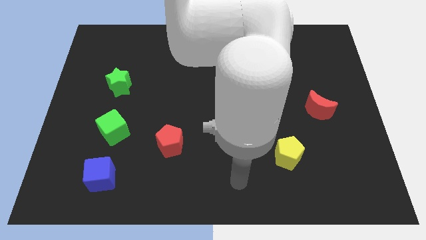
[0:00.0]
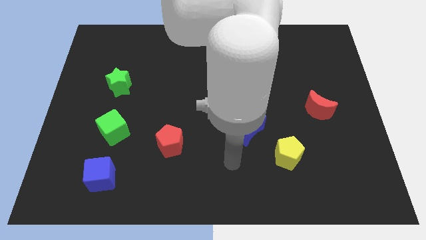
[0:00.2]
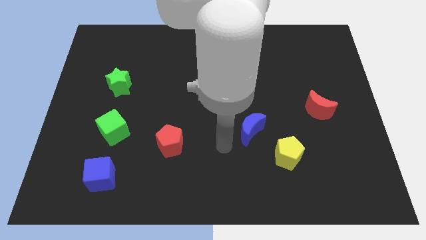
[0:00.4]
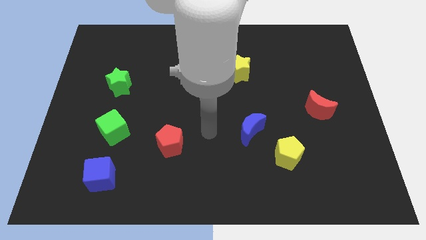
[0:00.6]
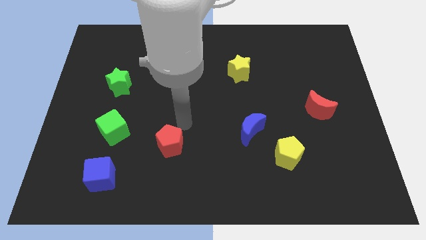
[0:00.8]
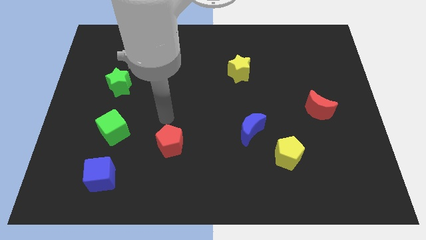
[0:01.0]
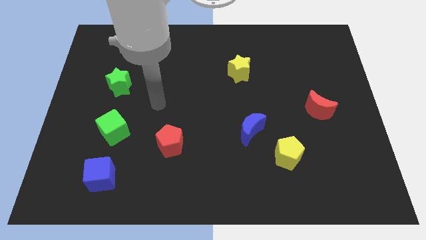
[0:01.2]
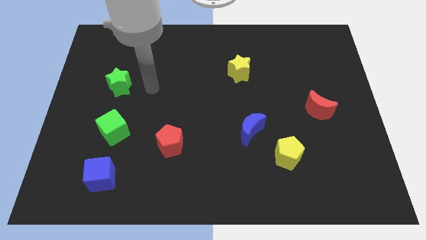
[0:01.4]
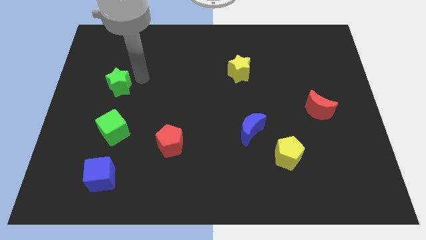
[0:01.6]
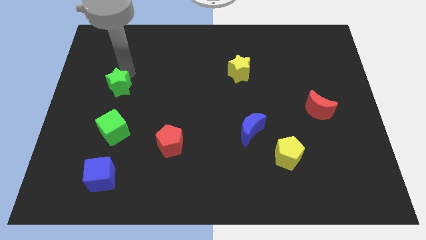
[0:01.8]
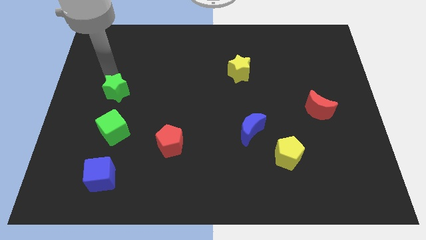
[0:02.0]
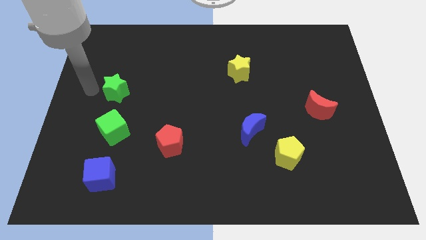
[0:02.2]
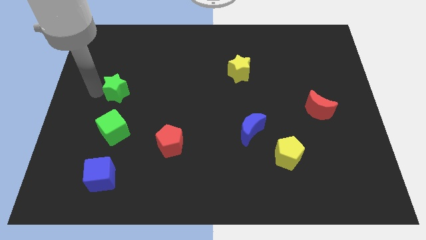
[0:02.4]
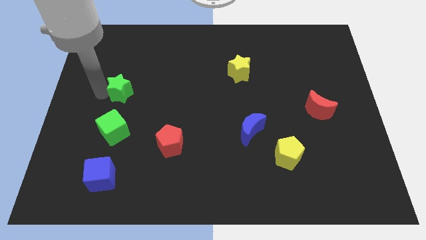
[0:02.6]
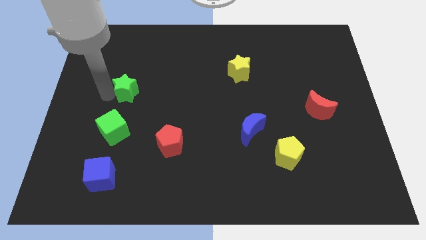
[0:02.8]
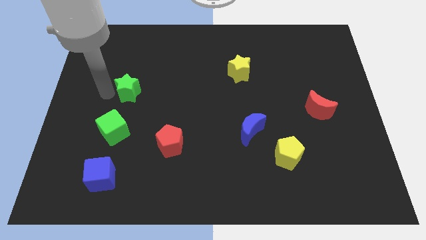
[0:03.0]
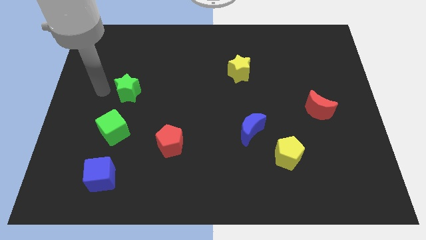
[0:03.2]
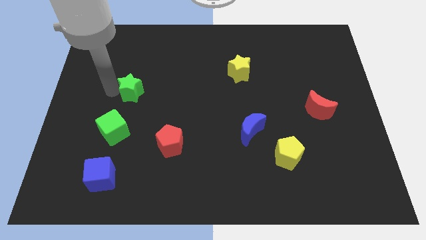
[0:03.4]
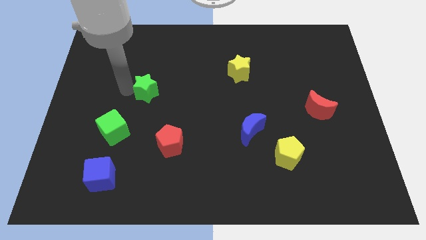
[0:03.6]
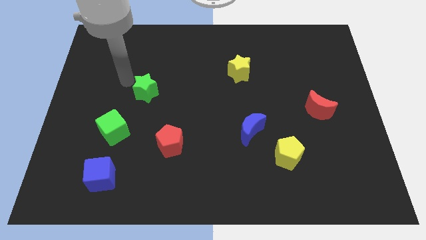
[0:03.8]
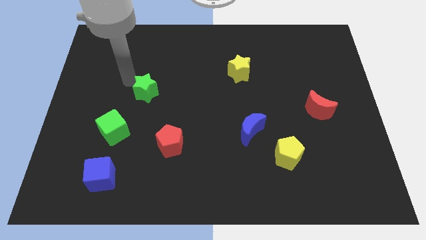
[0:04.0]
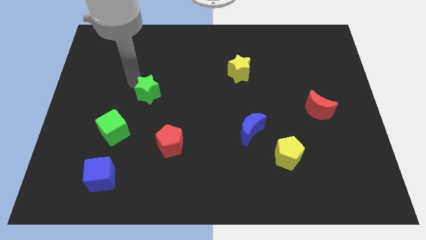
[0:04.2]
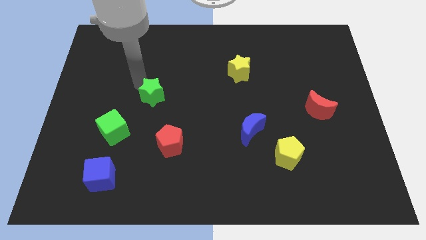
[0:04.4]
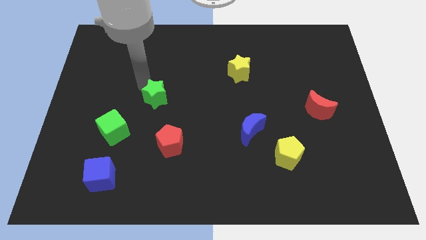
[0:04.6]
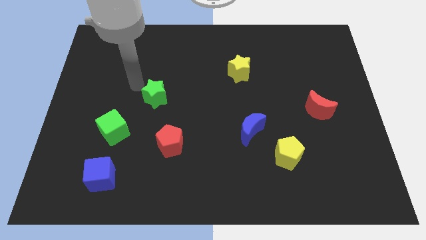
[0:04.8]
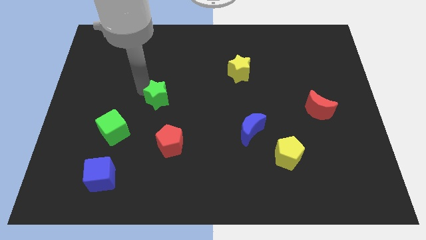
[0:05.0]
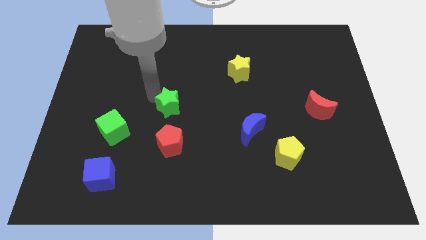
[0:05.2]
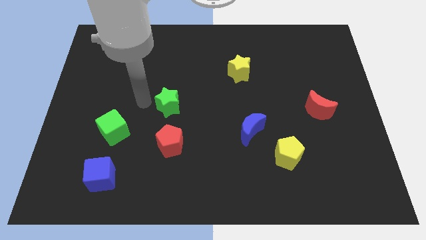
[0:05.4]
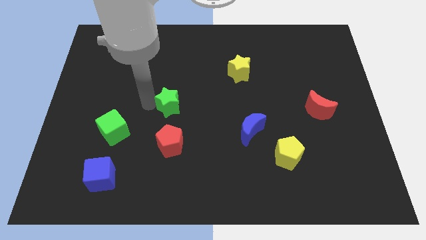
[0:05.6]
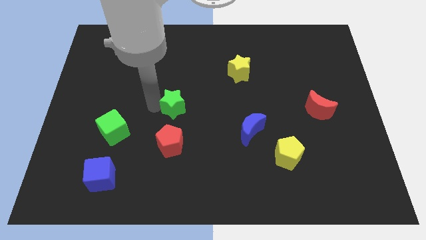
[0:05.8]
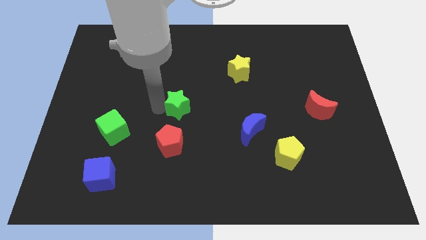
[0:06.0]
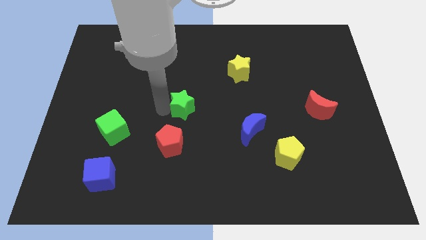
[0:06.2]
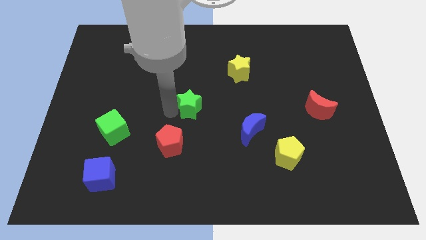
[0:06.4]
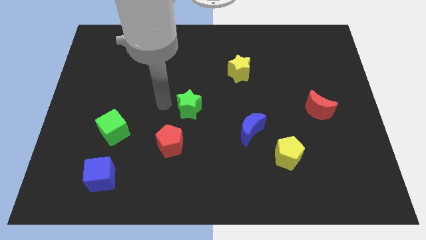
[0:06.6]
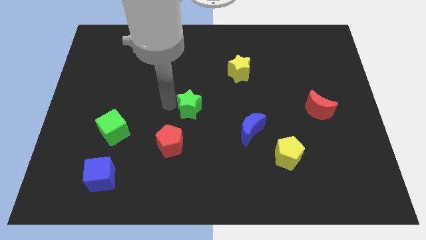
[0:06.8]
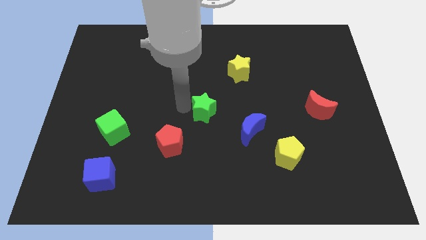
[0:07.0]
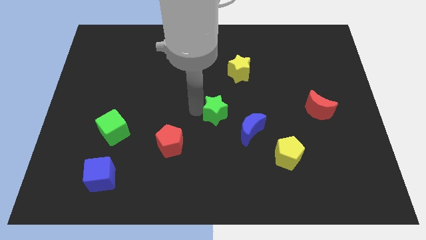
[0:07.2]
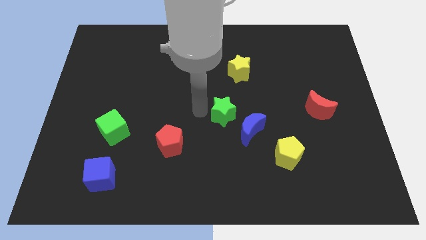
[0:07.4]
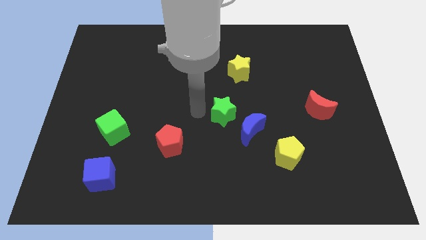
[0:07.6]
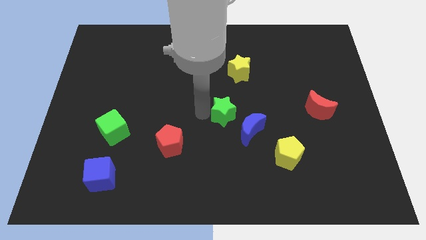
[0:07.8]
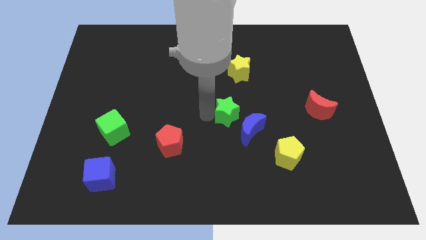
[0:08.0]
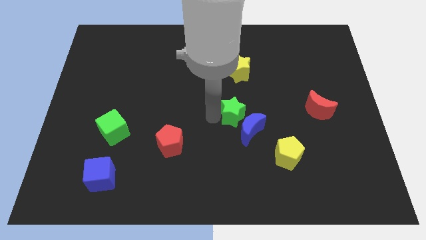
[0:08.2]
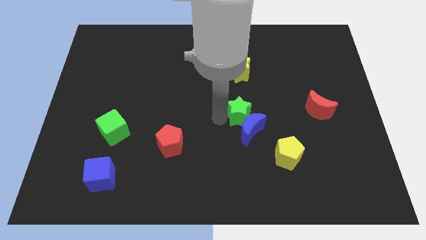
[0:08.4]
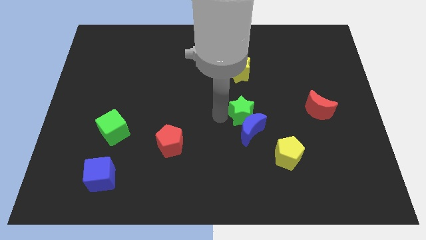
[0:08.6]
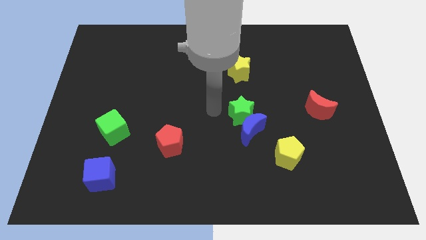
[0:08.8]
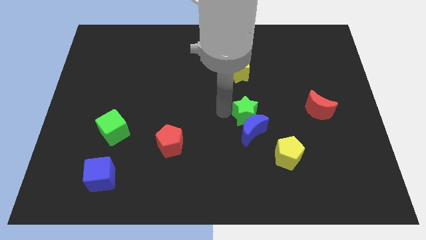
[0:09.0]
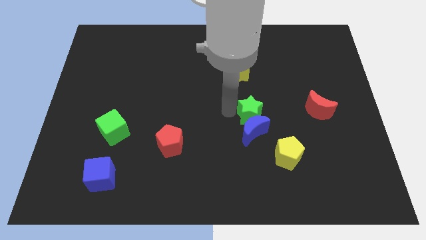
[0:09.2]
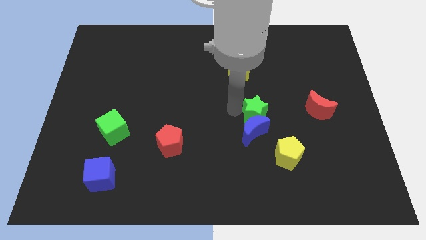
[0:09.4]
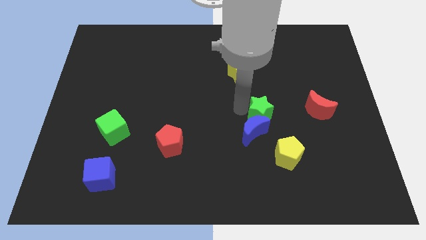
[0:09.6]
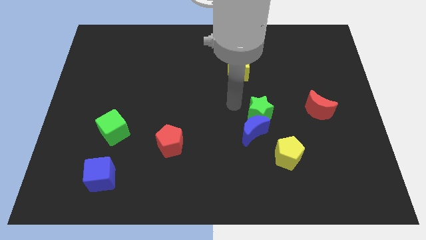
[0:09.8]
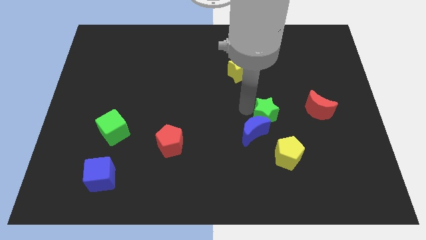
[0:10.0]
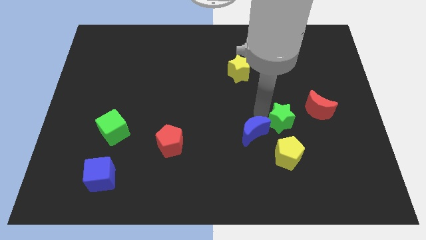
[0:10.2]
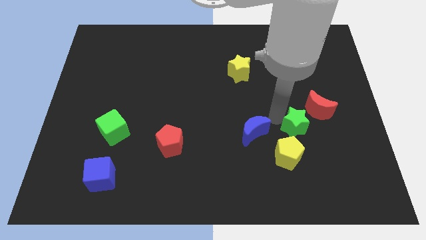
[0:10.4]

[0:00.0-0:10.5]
slide the green star to the top right side of the yellow pentagon

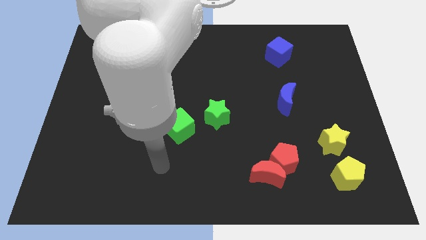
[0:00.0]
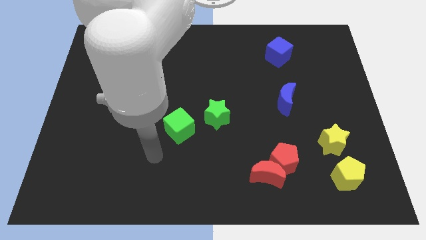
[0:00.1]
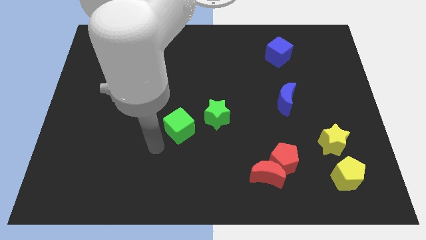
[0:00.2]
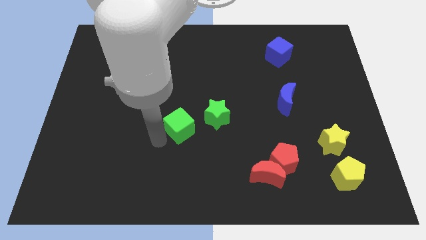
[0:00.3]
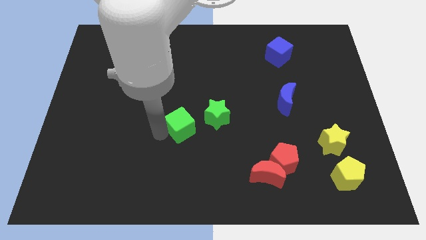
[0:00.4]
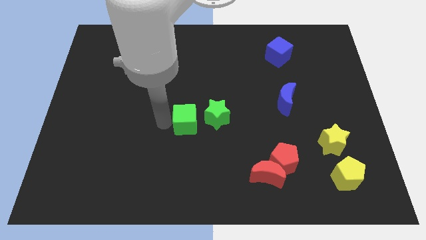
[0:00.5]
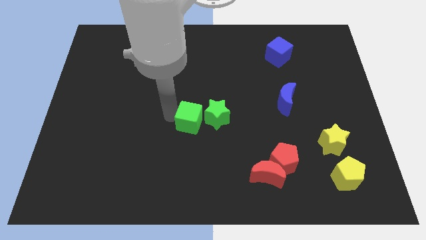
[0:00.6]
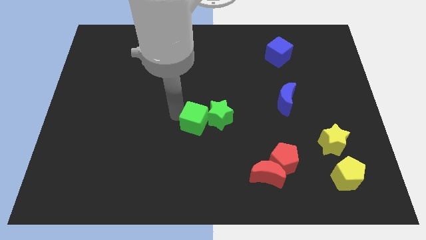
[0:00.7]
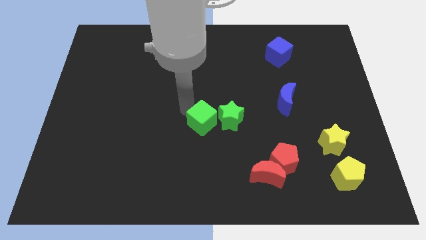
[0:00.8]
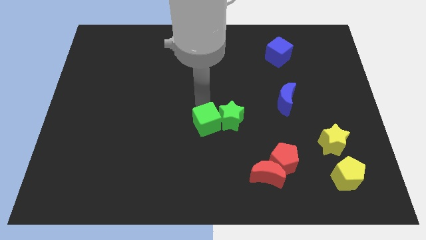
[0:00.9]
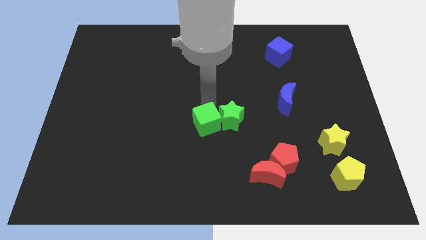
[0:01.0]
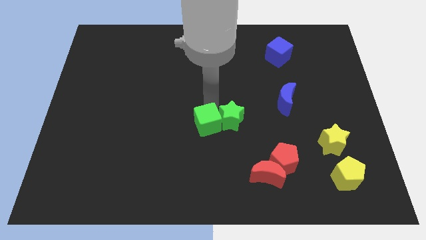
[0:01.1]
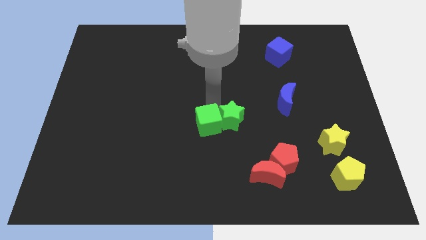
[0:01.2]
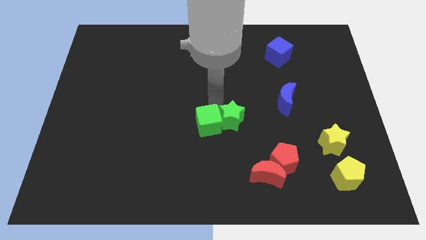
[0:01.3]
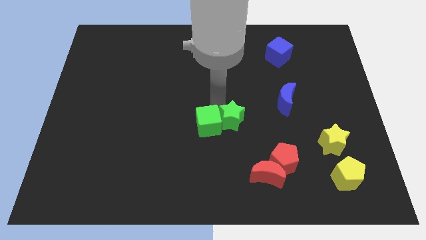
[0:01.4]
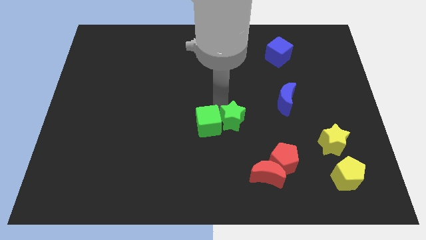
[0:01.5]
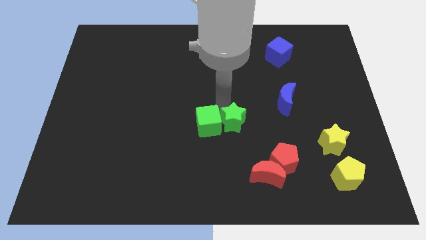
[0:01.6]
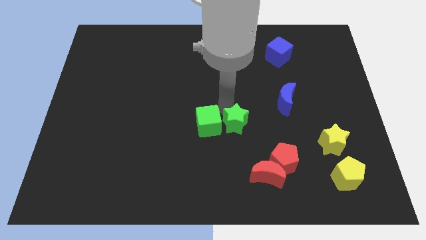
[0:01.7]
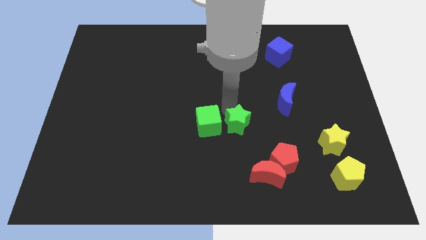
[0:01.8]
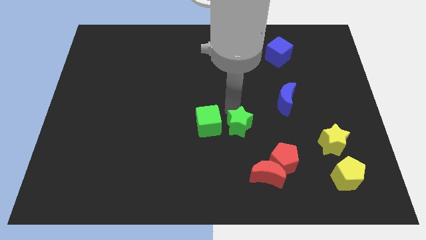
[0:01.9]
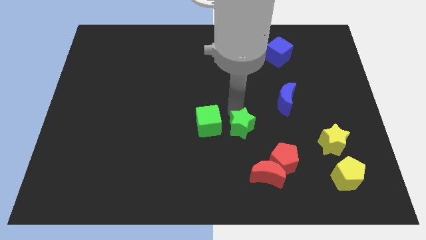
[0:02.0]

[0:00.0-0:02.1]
slide the green star to the top of the red moon
